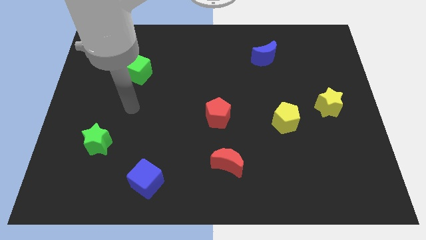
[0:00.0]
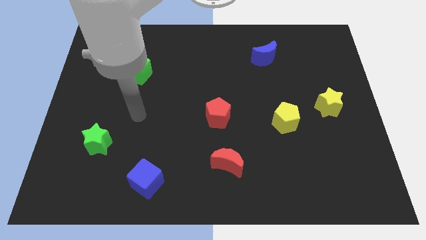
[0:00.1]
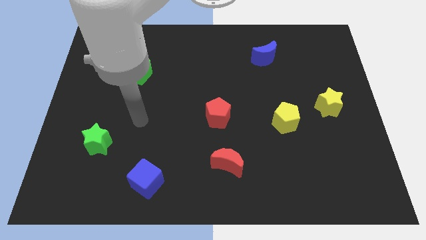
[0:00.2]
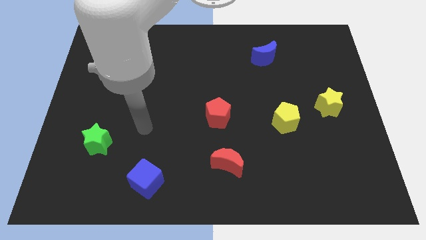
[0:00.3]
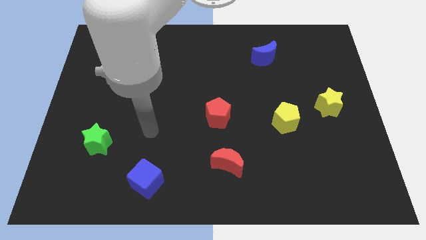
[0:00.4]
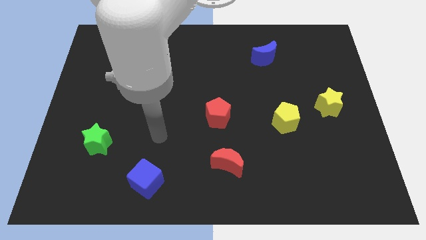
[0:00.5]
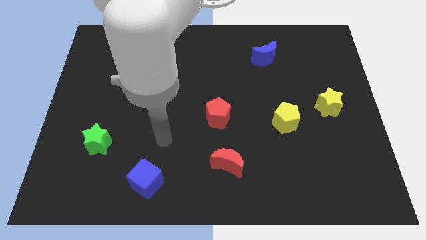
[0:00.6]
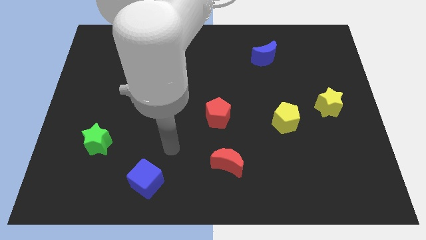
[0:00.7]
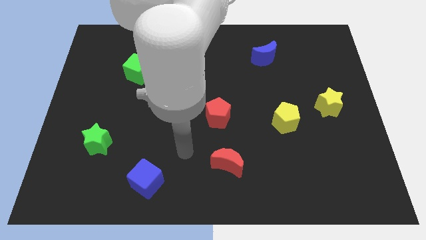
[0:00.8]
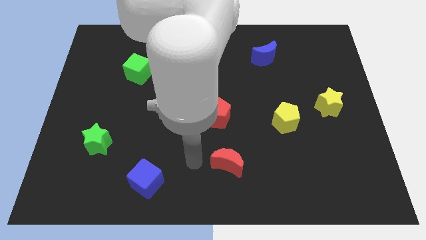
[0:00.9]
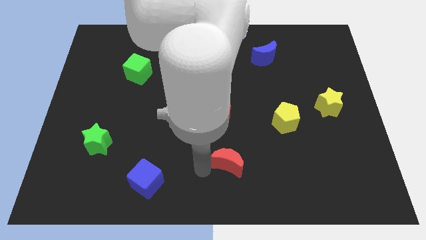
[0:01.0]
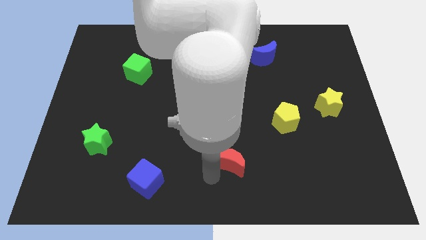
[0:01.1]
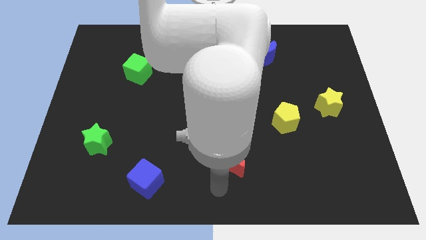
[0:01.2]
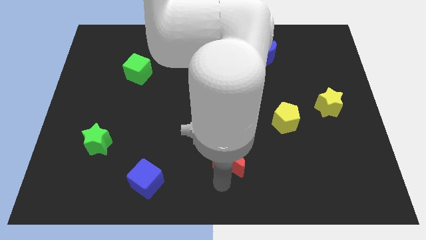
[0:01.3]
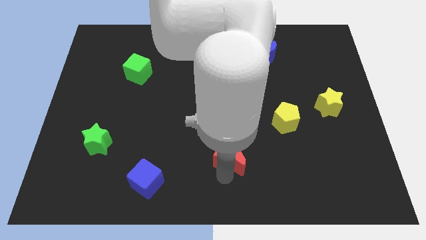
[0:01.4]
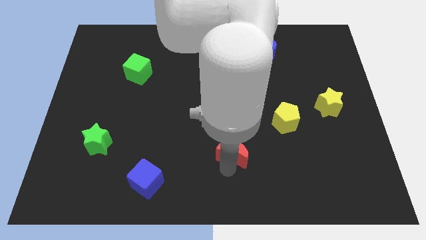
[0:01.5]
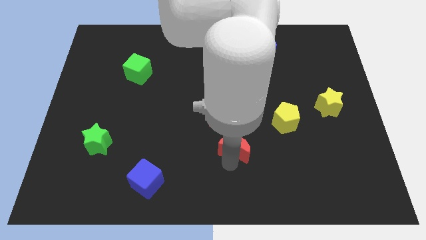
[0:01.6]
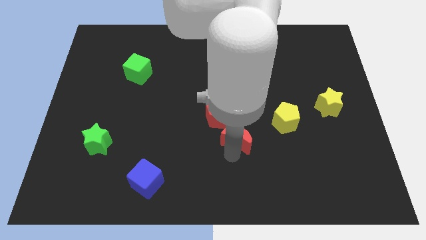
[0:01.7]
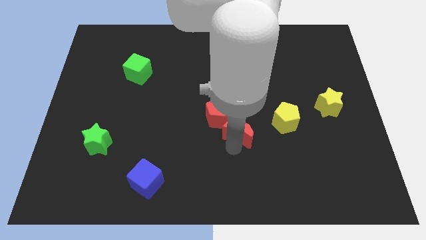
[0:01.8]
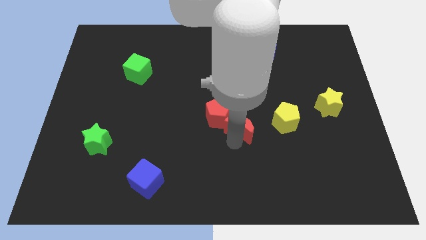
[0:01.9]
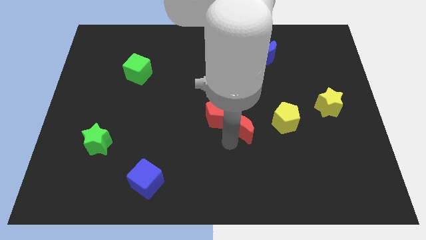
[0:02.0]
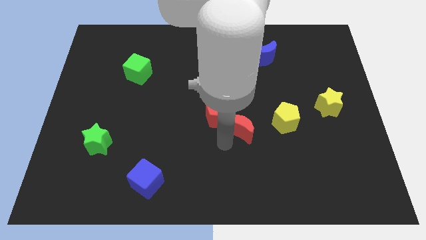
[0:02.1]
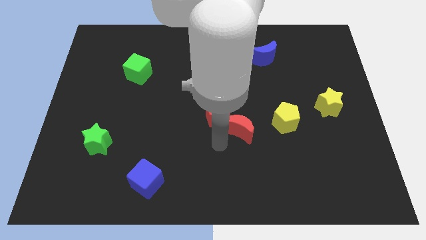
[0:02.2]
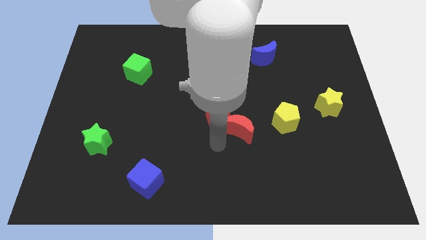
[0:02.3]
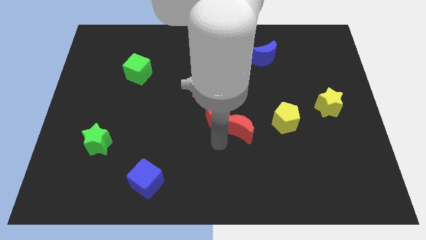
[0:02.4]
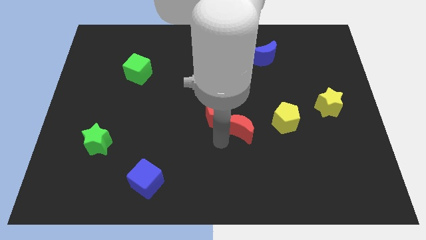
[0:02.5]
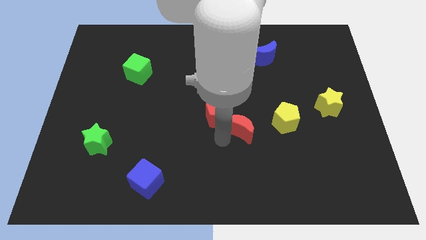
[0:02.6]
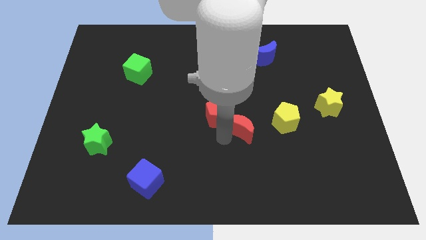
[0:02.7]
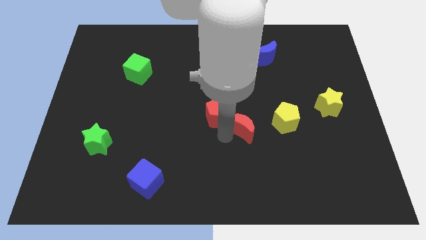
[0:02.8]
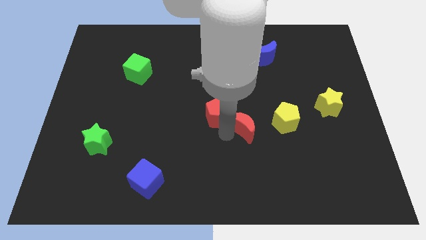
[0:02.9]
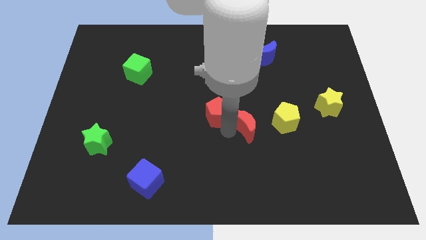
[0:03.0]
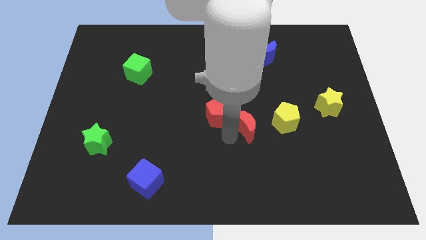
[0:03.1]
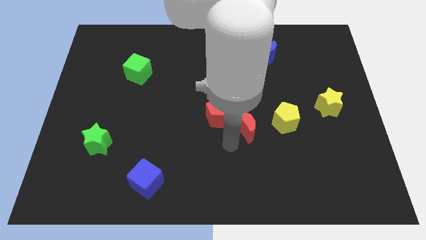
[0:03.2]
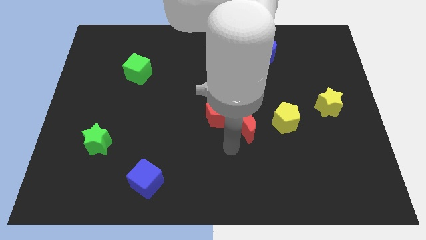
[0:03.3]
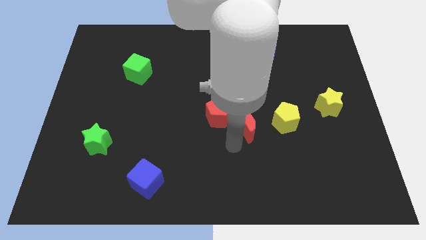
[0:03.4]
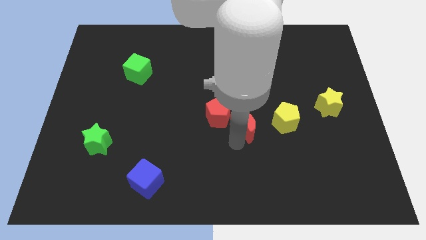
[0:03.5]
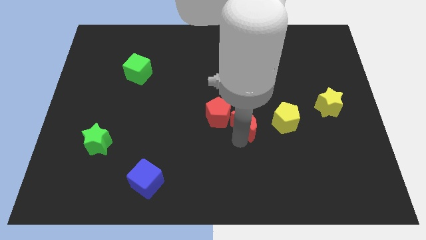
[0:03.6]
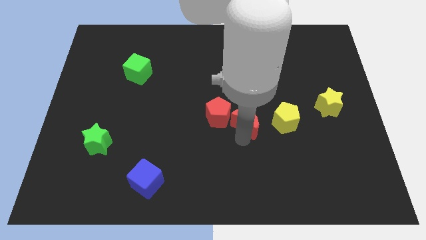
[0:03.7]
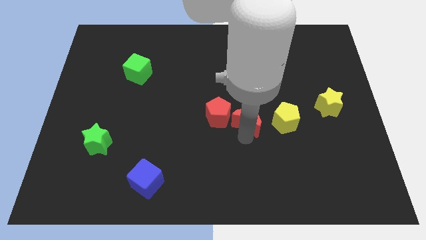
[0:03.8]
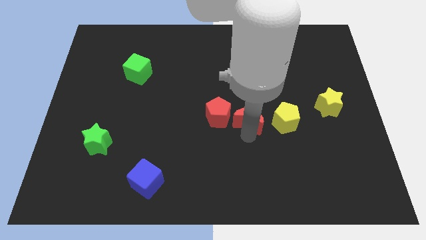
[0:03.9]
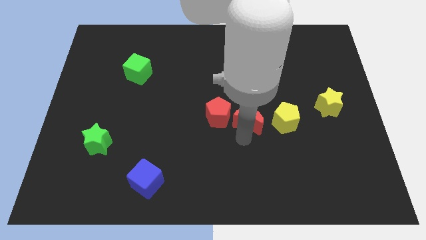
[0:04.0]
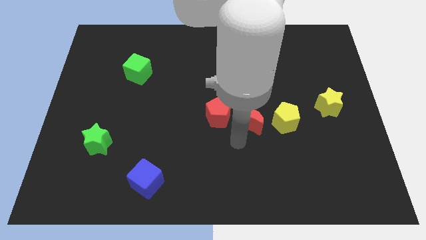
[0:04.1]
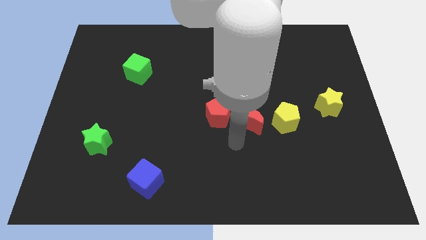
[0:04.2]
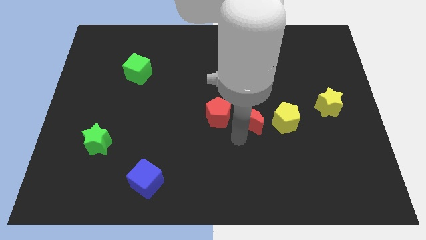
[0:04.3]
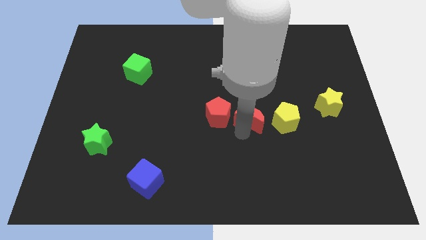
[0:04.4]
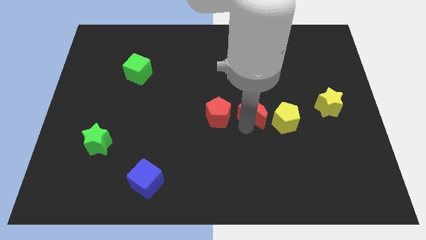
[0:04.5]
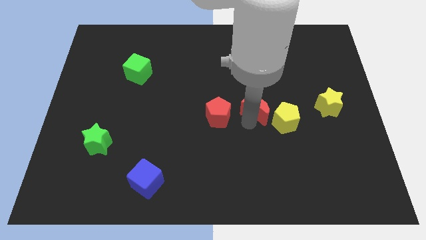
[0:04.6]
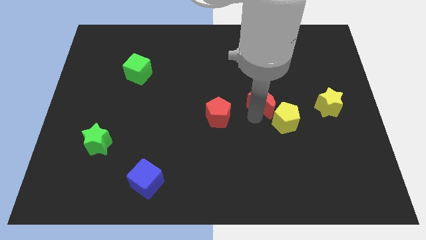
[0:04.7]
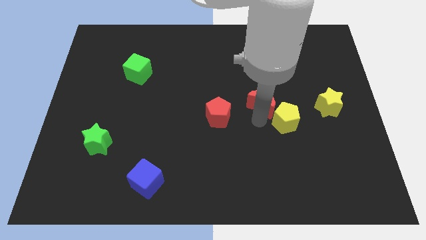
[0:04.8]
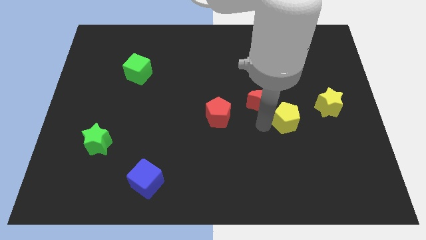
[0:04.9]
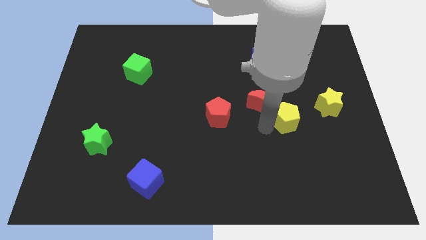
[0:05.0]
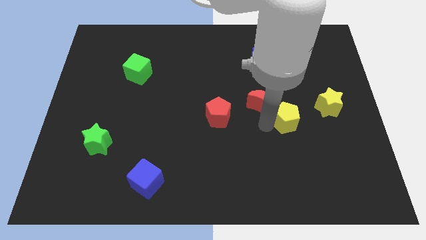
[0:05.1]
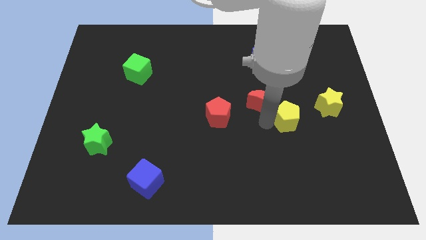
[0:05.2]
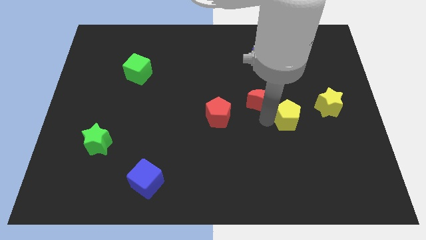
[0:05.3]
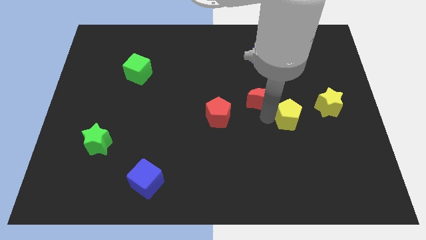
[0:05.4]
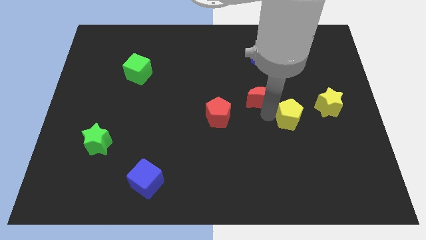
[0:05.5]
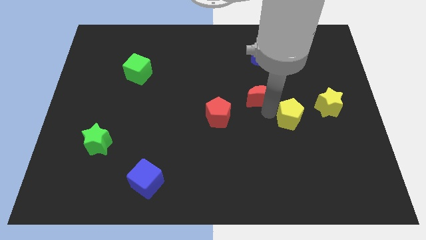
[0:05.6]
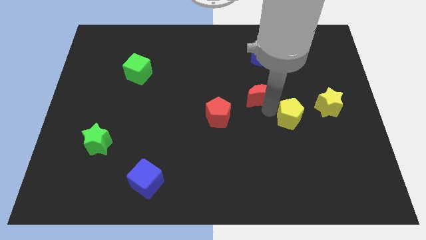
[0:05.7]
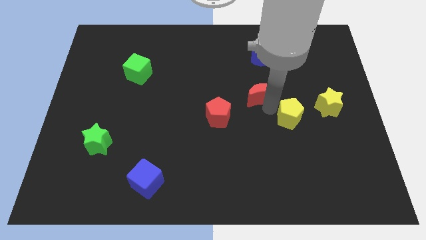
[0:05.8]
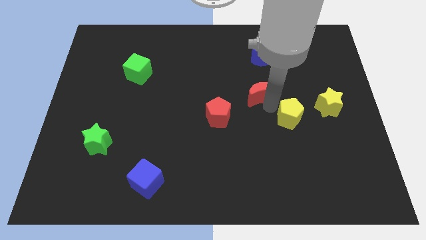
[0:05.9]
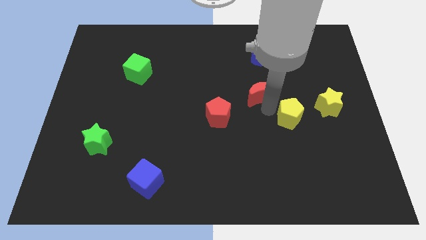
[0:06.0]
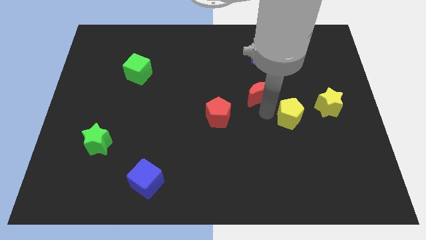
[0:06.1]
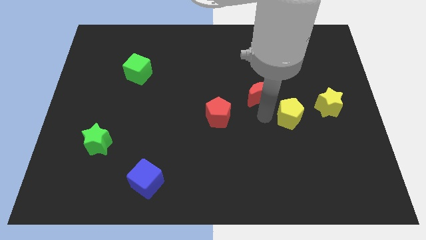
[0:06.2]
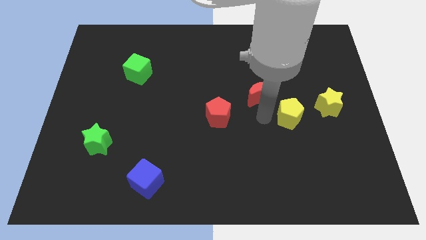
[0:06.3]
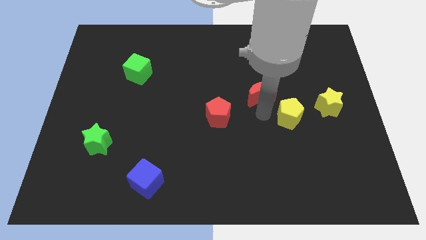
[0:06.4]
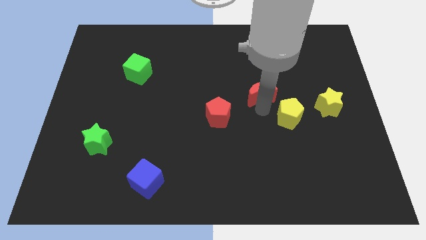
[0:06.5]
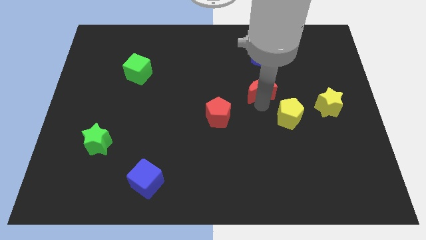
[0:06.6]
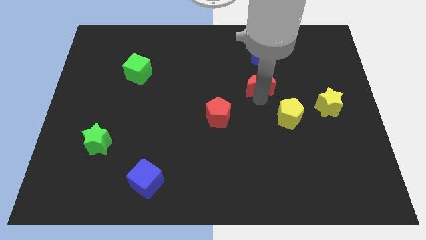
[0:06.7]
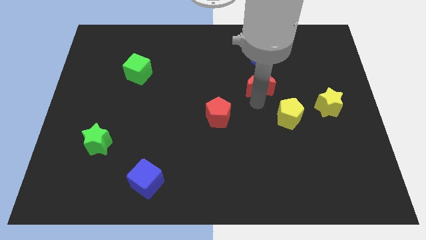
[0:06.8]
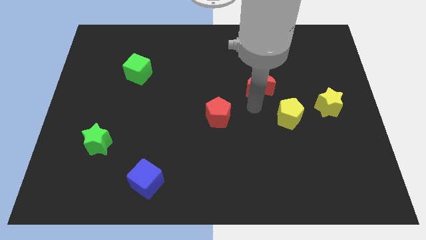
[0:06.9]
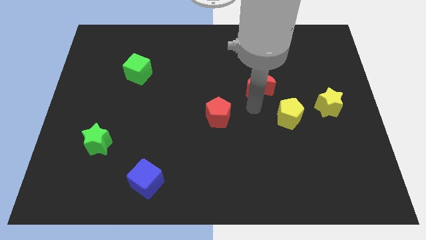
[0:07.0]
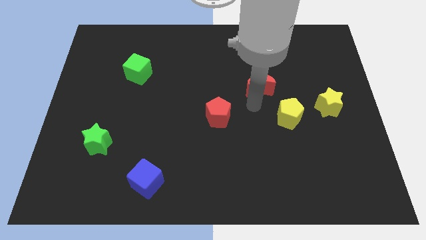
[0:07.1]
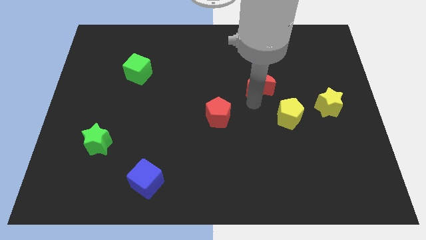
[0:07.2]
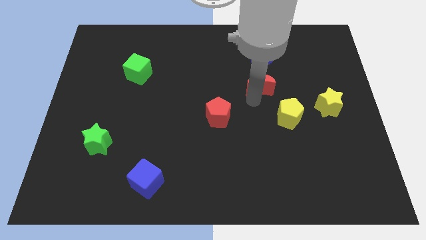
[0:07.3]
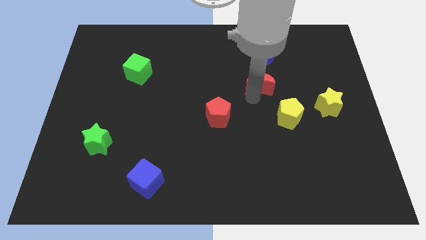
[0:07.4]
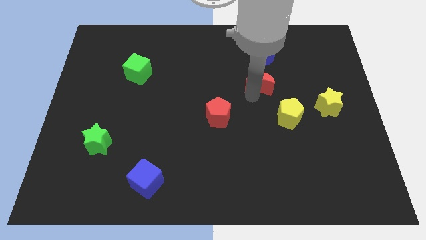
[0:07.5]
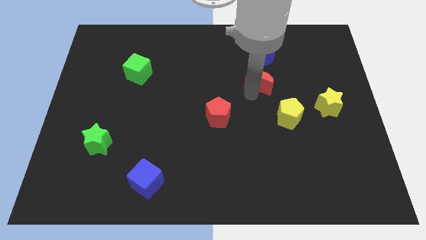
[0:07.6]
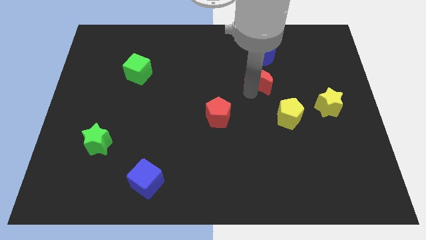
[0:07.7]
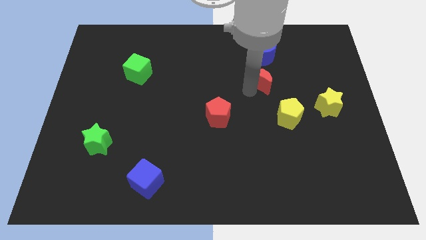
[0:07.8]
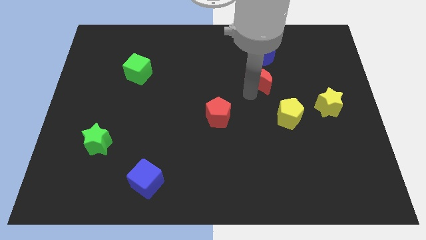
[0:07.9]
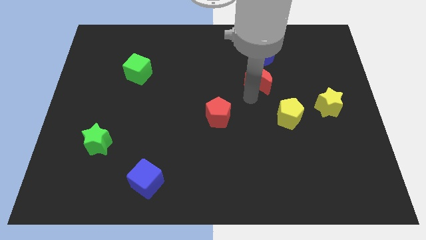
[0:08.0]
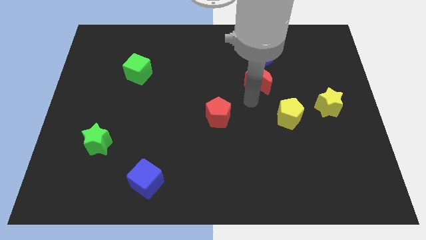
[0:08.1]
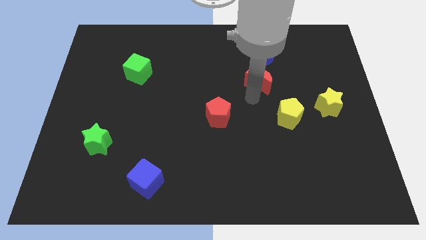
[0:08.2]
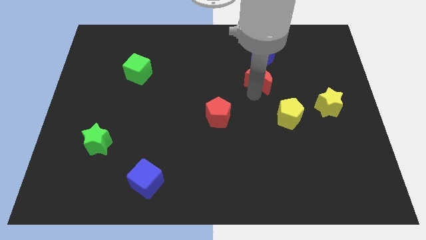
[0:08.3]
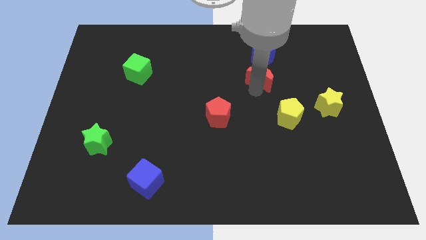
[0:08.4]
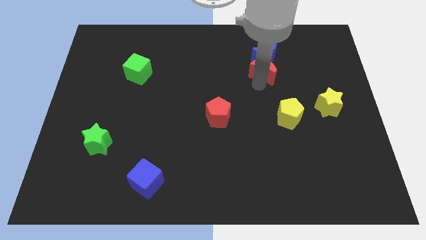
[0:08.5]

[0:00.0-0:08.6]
push the red moon towards the blue moon
